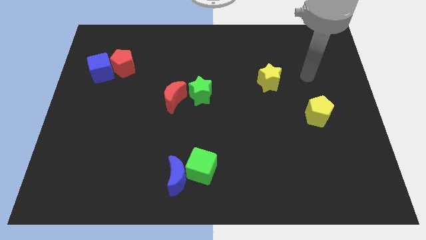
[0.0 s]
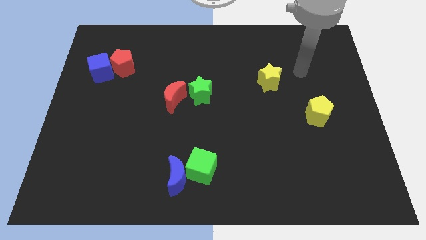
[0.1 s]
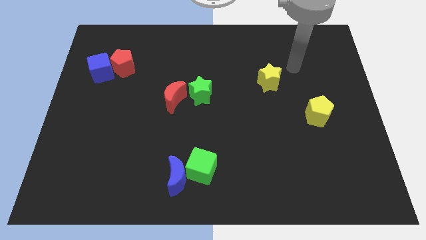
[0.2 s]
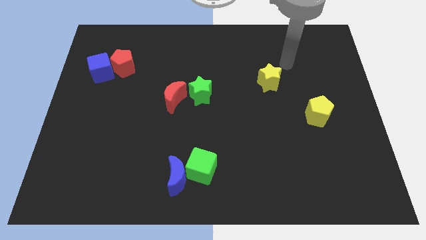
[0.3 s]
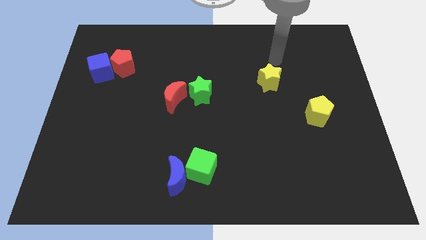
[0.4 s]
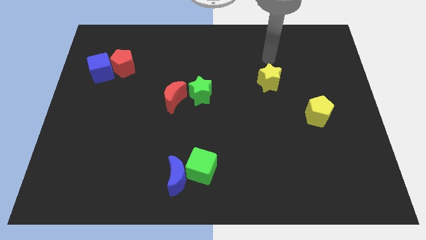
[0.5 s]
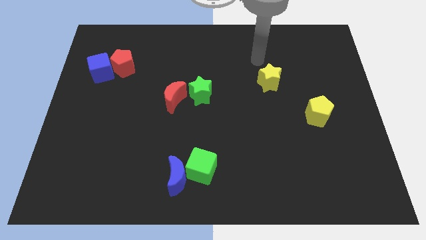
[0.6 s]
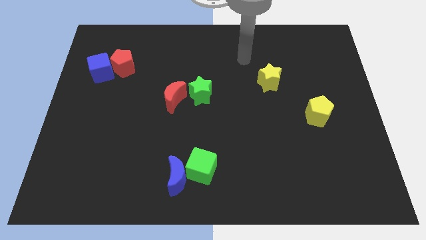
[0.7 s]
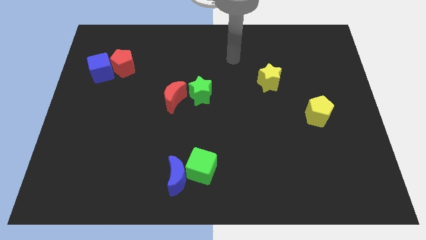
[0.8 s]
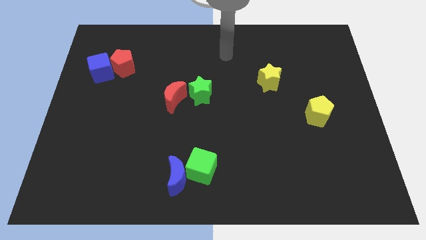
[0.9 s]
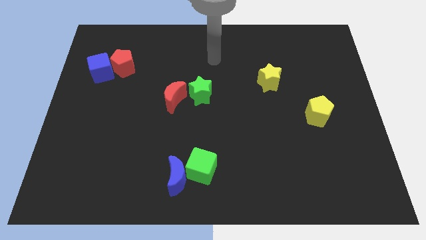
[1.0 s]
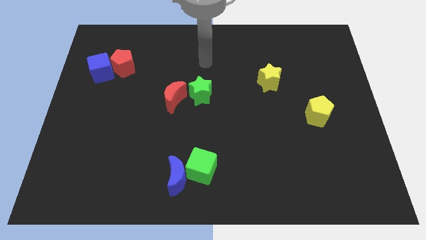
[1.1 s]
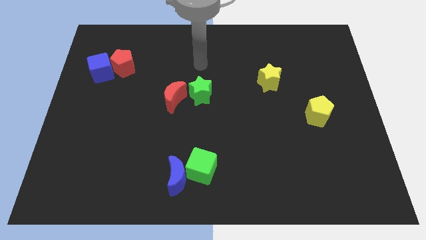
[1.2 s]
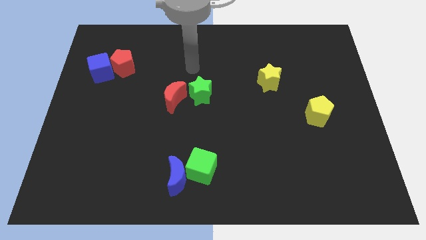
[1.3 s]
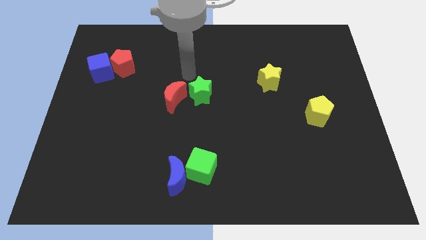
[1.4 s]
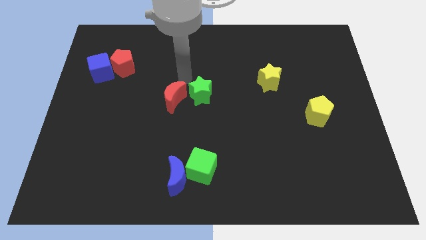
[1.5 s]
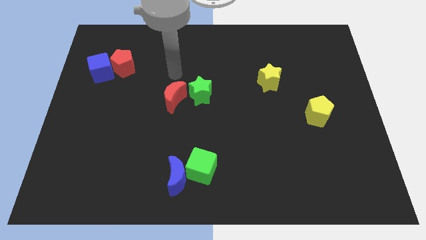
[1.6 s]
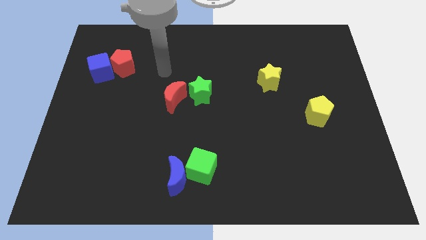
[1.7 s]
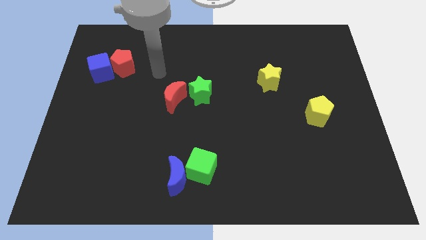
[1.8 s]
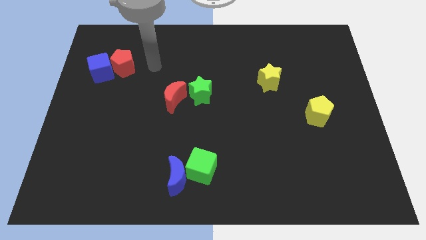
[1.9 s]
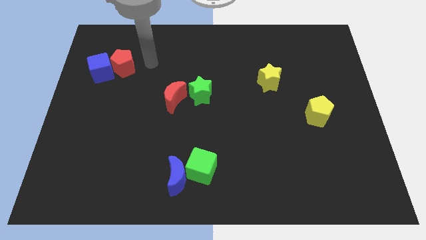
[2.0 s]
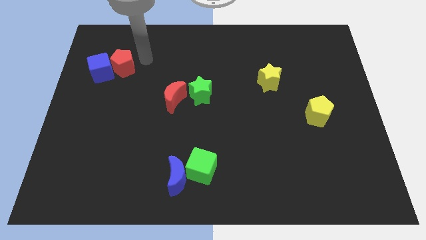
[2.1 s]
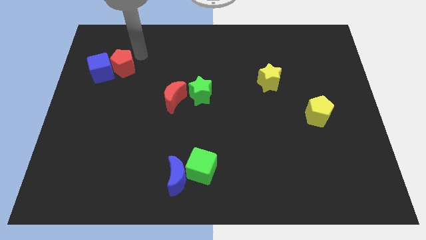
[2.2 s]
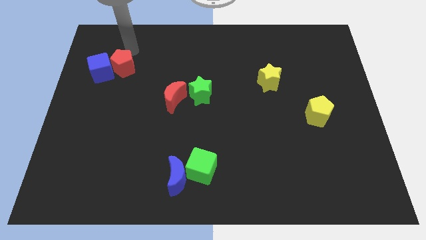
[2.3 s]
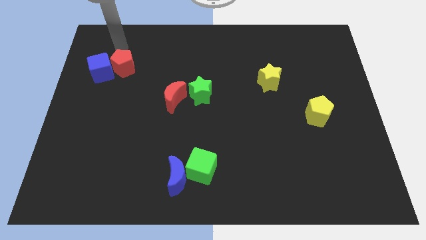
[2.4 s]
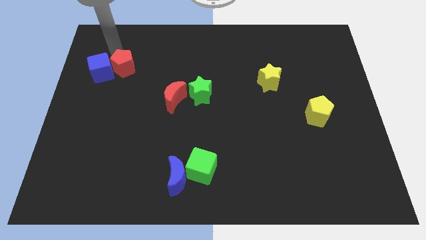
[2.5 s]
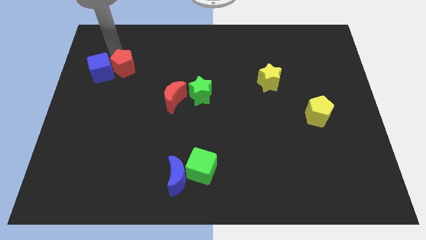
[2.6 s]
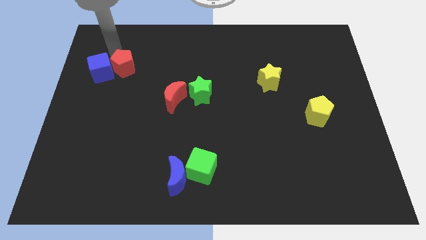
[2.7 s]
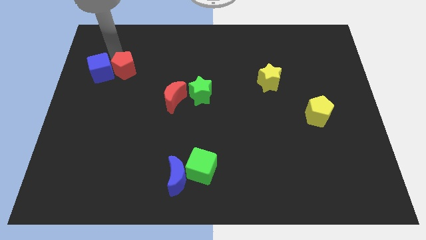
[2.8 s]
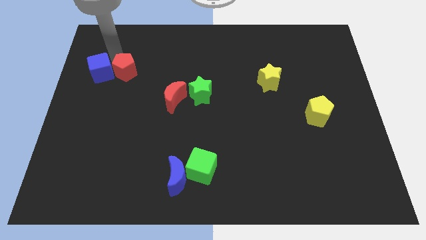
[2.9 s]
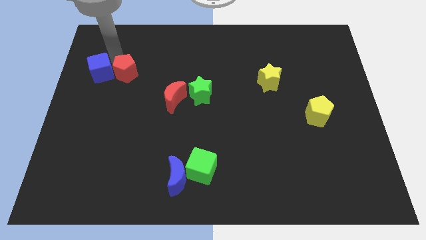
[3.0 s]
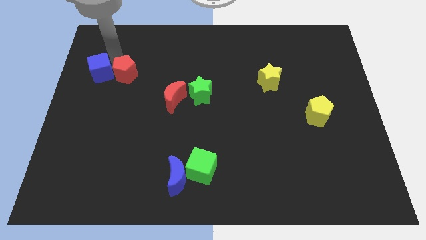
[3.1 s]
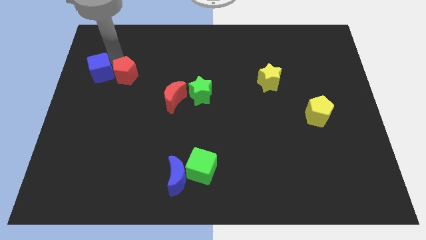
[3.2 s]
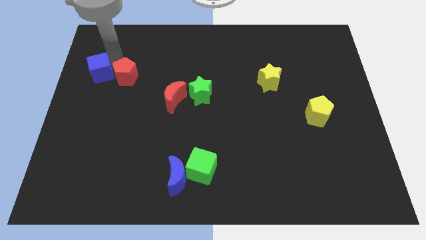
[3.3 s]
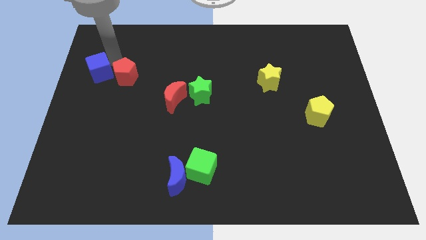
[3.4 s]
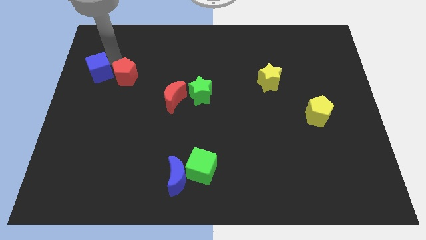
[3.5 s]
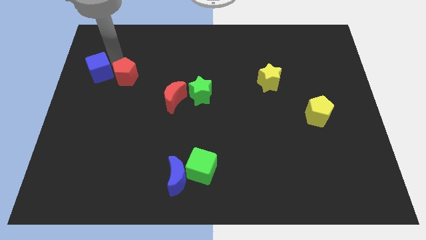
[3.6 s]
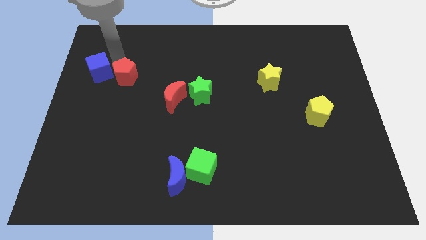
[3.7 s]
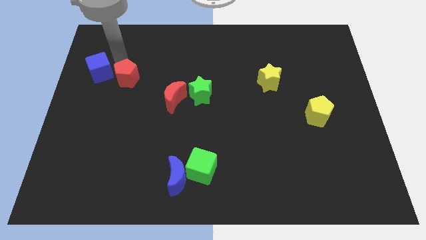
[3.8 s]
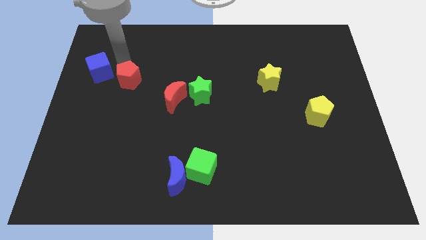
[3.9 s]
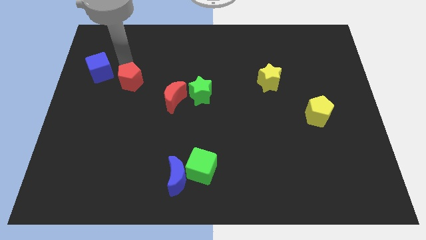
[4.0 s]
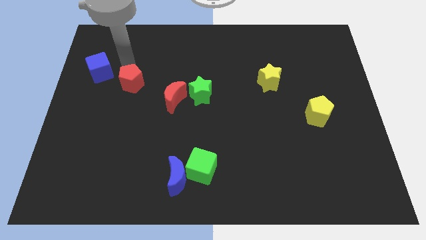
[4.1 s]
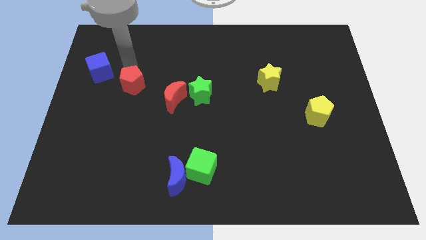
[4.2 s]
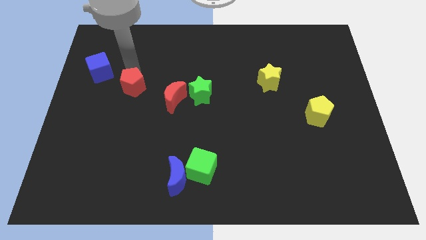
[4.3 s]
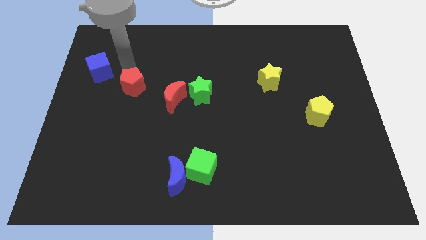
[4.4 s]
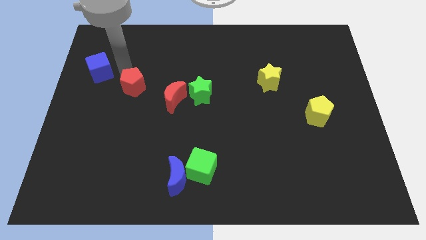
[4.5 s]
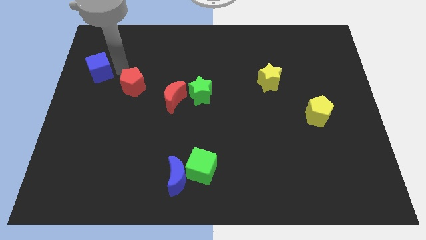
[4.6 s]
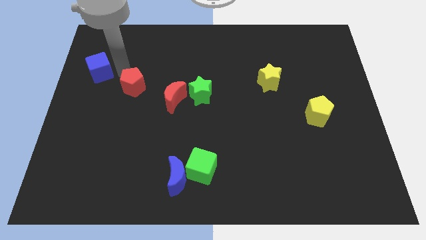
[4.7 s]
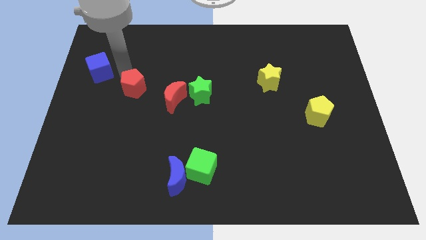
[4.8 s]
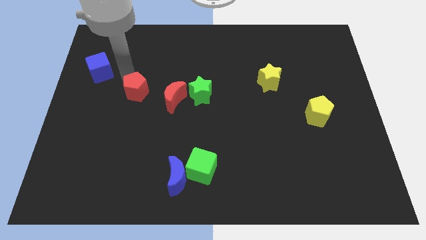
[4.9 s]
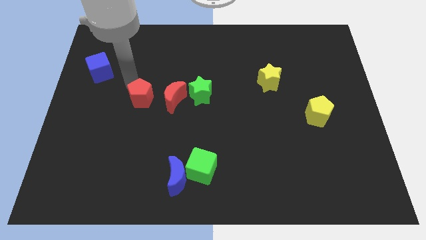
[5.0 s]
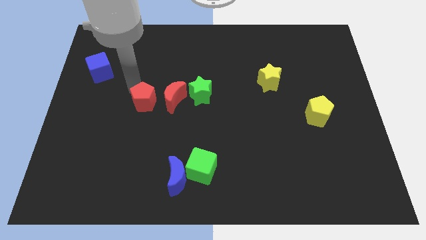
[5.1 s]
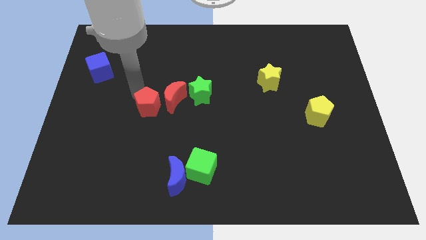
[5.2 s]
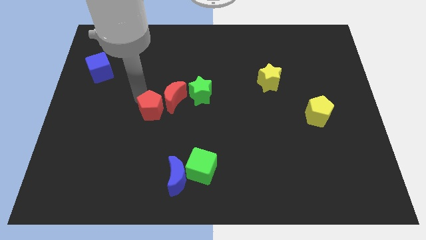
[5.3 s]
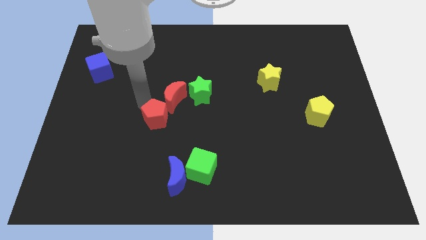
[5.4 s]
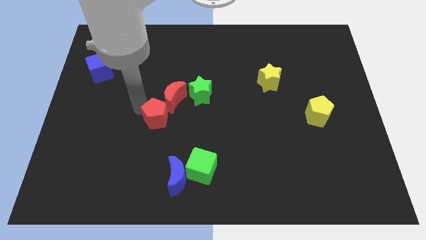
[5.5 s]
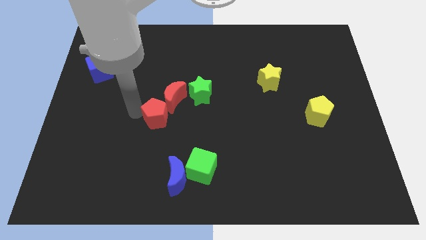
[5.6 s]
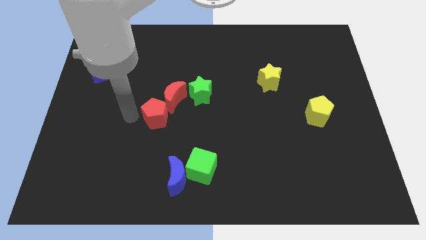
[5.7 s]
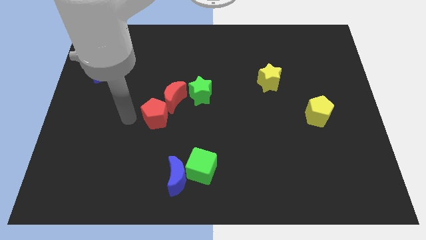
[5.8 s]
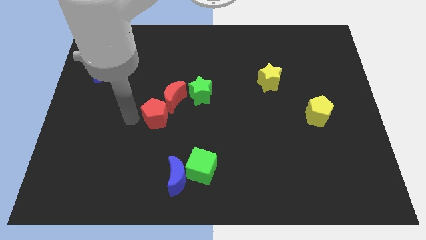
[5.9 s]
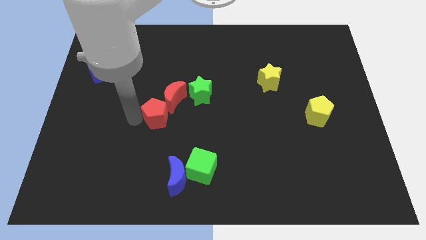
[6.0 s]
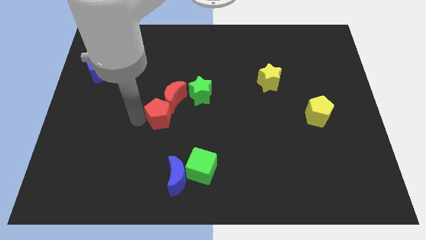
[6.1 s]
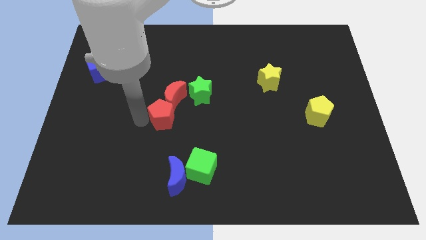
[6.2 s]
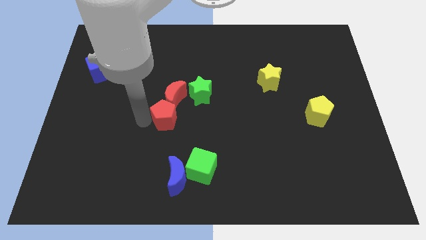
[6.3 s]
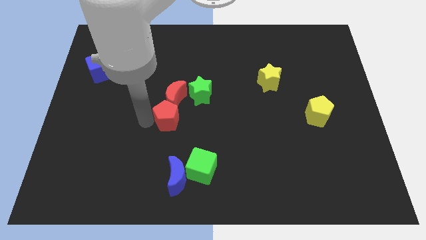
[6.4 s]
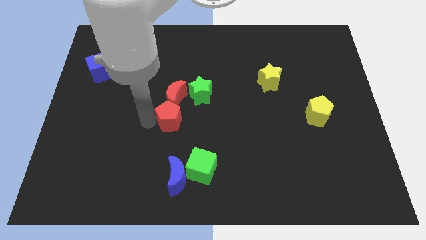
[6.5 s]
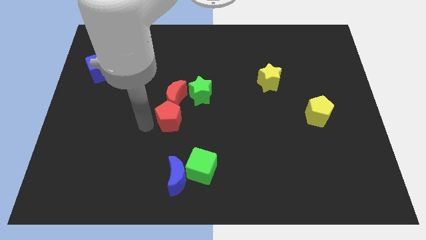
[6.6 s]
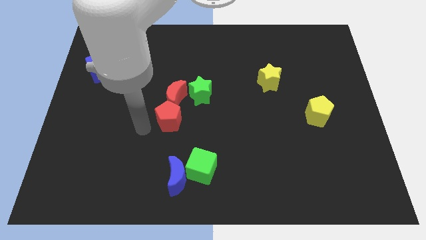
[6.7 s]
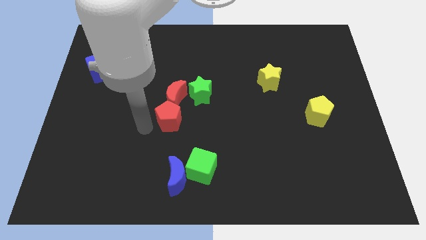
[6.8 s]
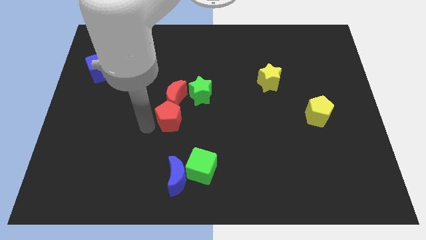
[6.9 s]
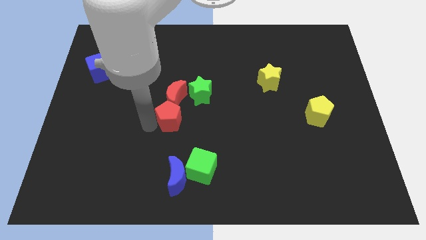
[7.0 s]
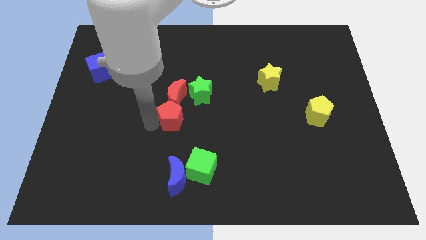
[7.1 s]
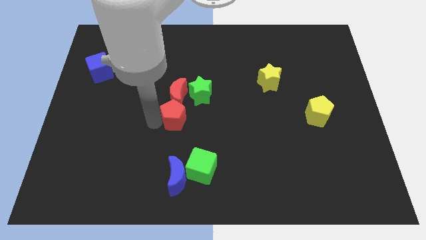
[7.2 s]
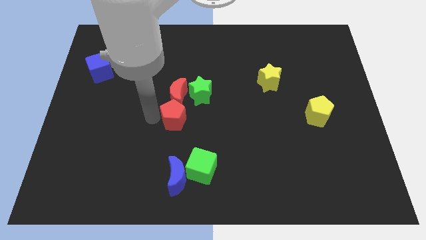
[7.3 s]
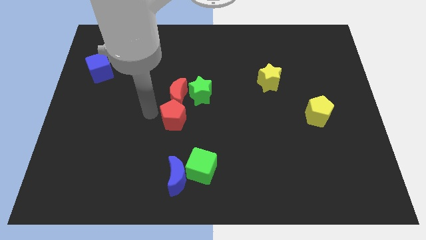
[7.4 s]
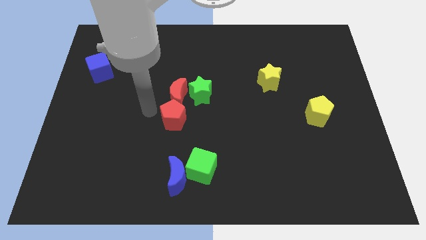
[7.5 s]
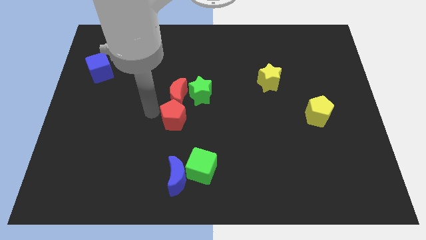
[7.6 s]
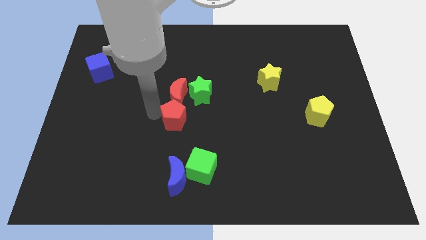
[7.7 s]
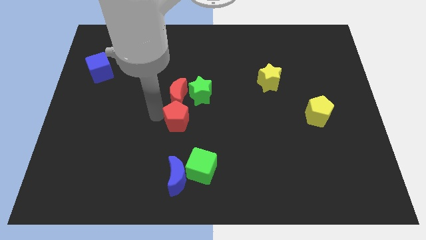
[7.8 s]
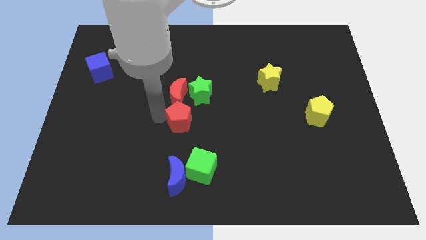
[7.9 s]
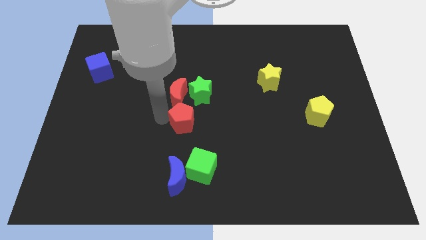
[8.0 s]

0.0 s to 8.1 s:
push the red pentagon to the top side of the green cube
